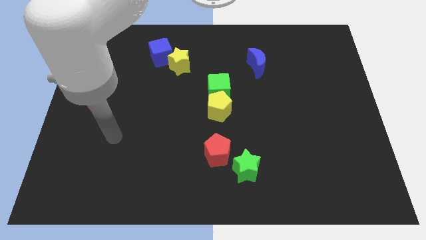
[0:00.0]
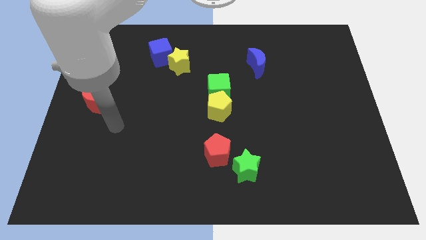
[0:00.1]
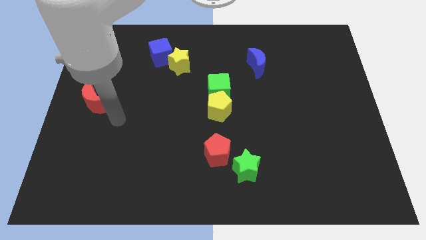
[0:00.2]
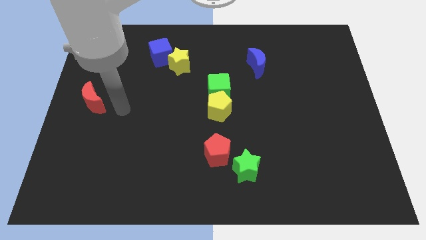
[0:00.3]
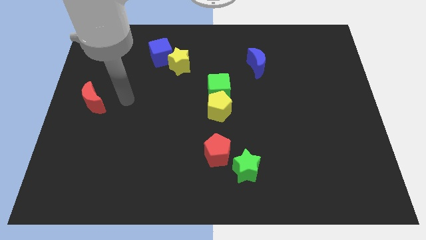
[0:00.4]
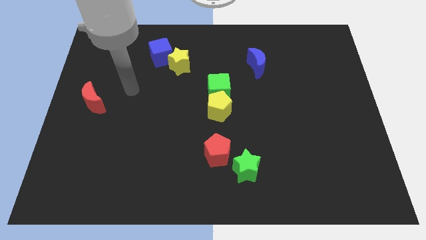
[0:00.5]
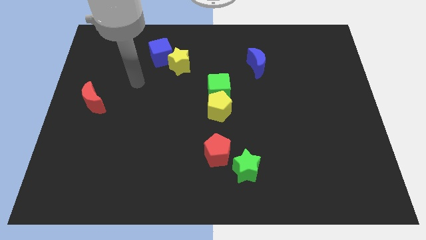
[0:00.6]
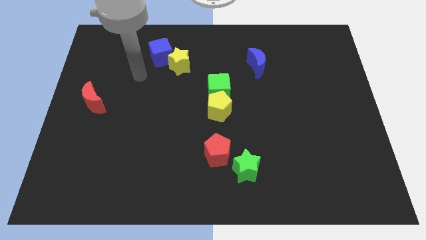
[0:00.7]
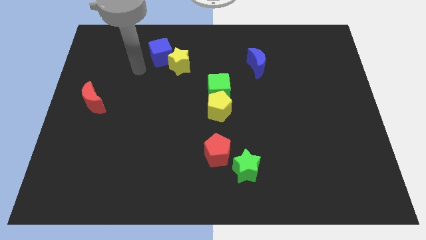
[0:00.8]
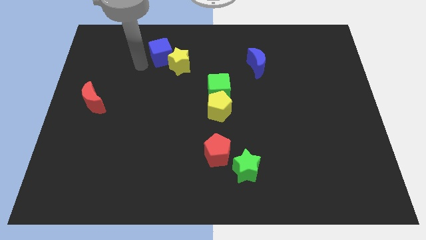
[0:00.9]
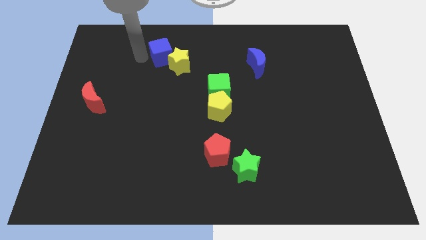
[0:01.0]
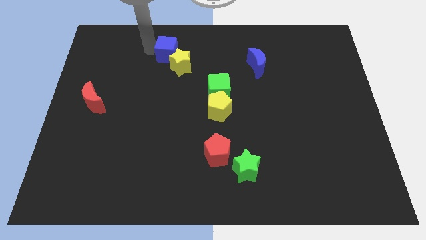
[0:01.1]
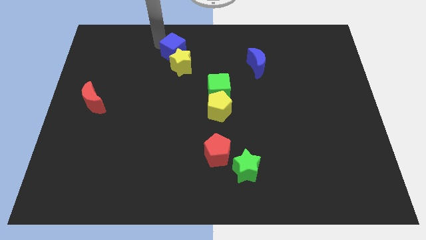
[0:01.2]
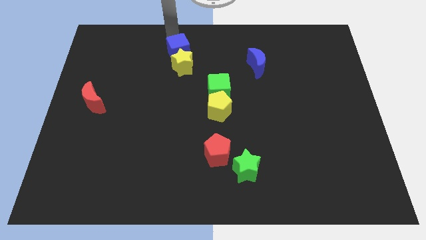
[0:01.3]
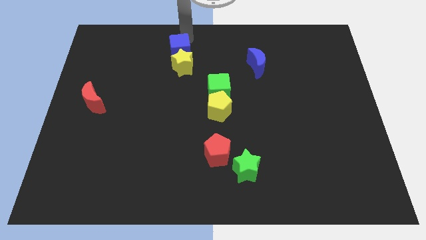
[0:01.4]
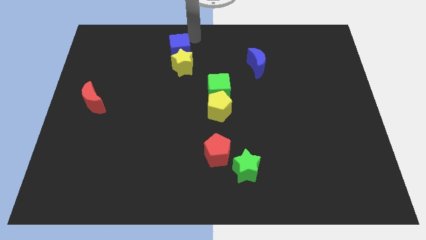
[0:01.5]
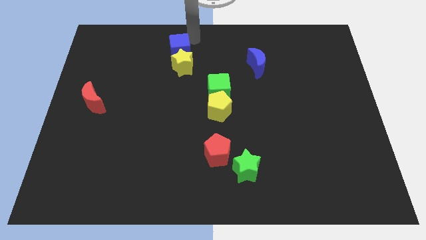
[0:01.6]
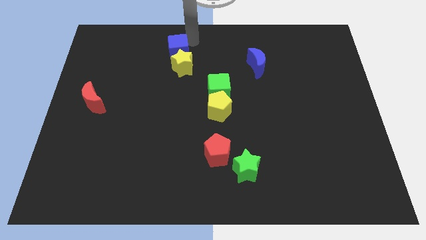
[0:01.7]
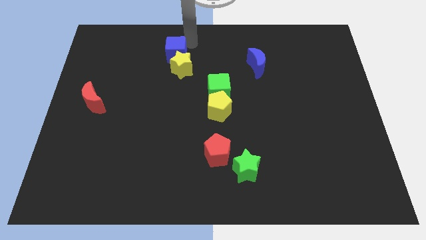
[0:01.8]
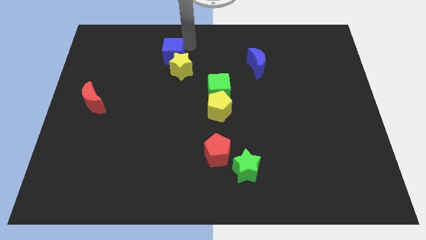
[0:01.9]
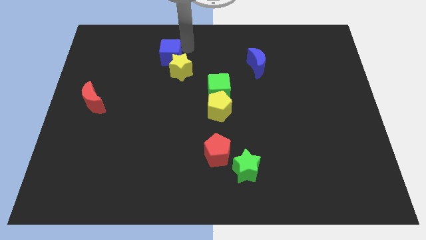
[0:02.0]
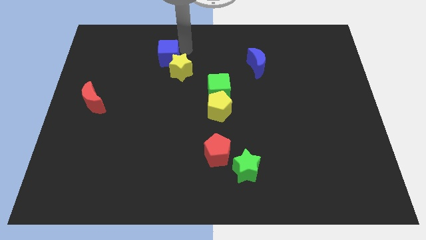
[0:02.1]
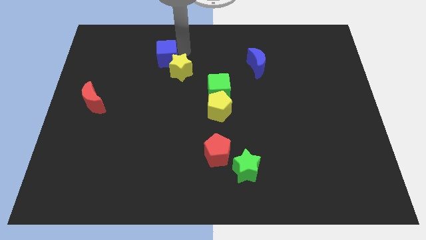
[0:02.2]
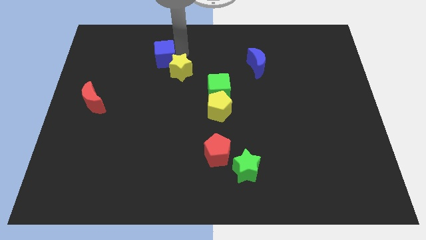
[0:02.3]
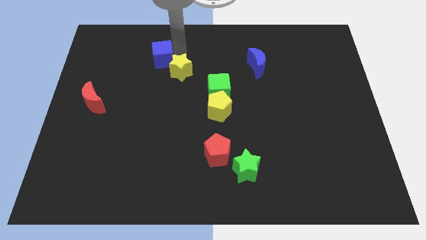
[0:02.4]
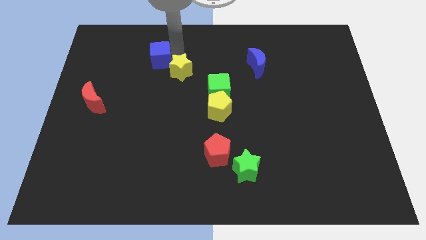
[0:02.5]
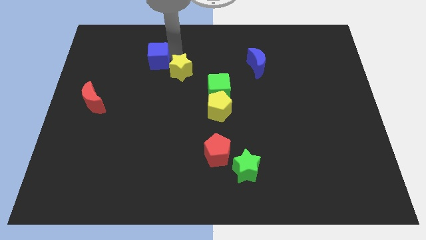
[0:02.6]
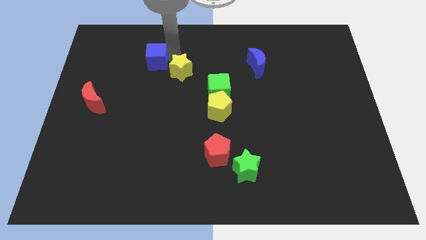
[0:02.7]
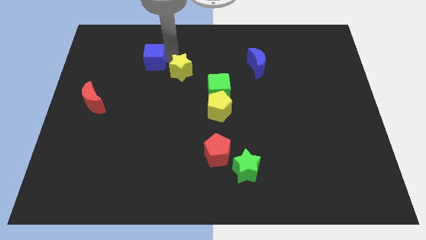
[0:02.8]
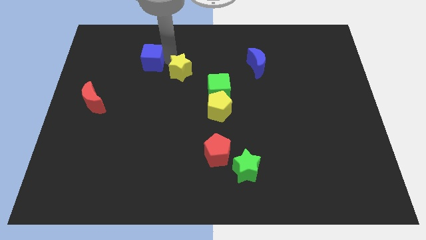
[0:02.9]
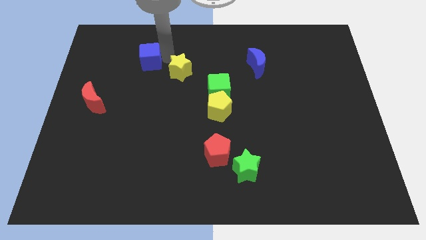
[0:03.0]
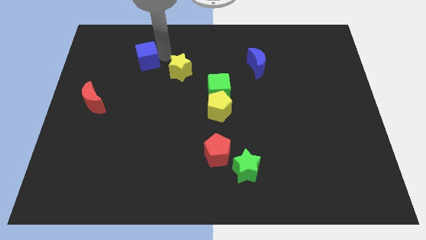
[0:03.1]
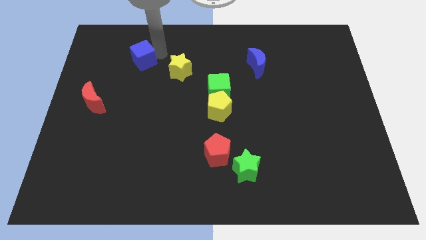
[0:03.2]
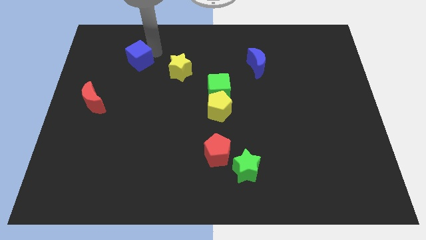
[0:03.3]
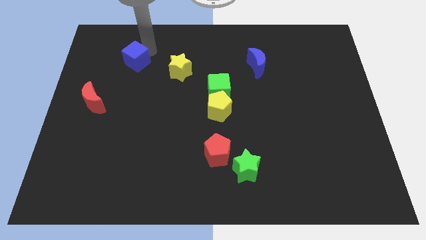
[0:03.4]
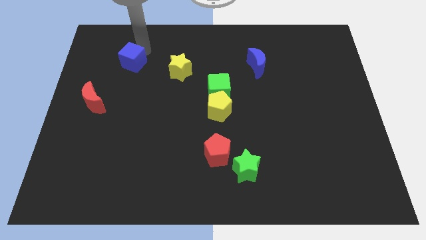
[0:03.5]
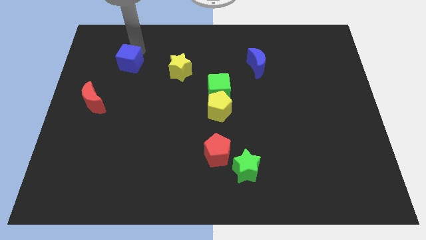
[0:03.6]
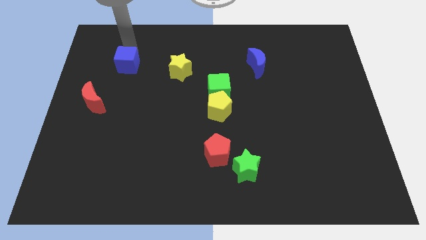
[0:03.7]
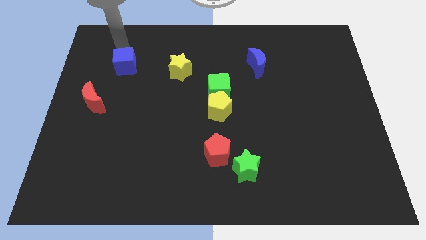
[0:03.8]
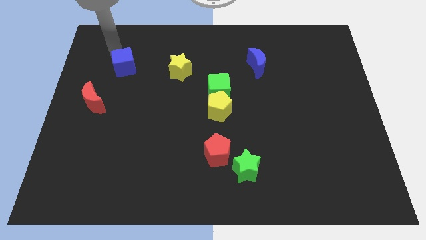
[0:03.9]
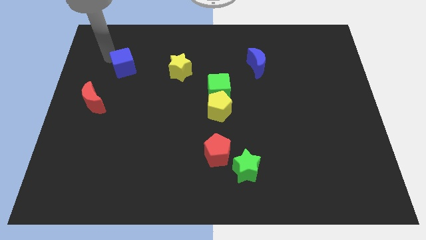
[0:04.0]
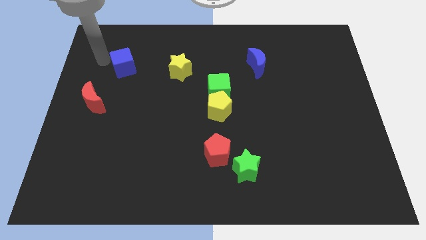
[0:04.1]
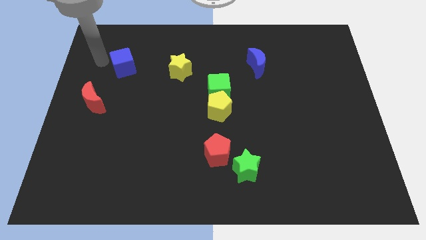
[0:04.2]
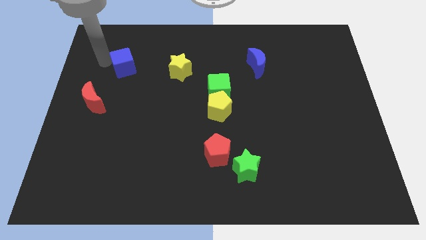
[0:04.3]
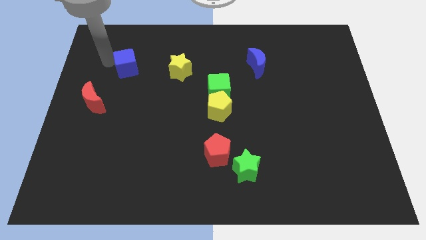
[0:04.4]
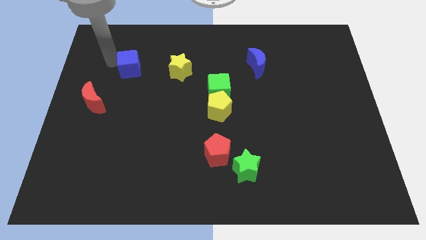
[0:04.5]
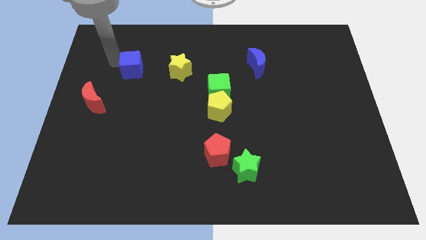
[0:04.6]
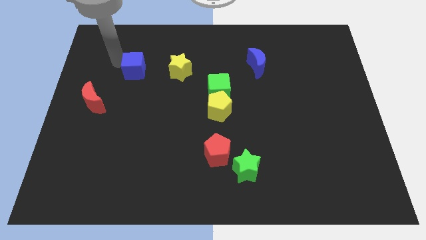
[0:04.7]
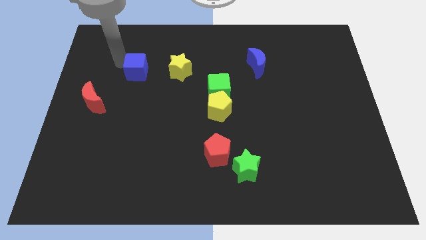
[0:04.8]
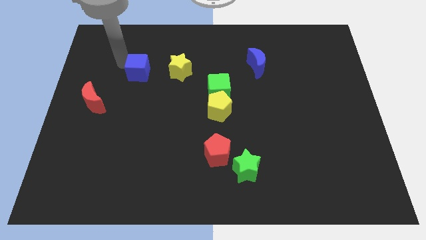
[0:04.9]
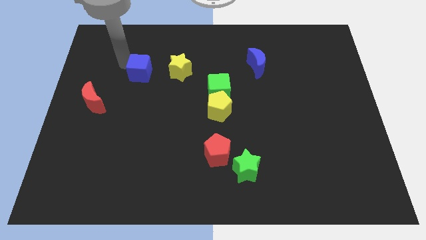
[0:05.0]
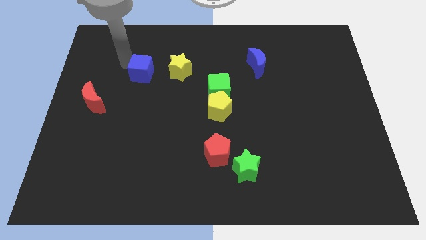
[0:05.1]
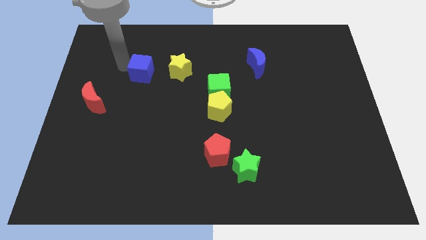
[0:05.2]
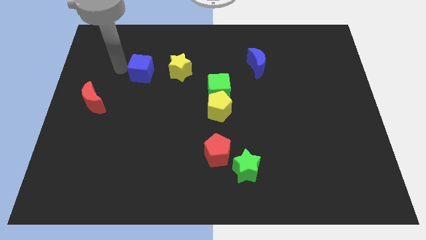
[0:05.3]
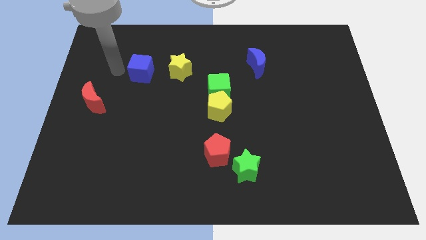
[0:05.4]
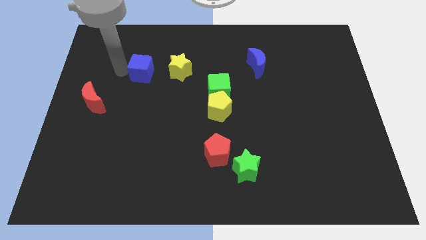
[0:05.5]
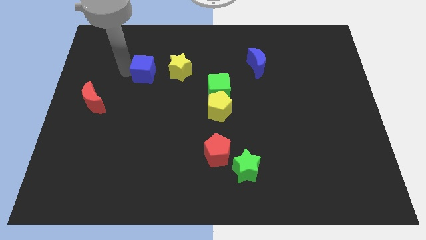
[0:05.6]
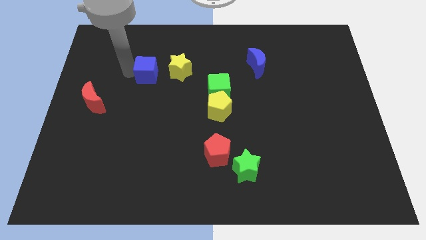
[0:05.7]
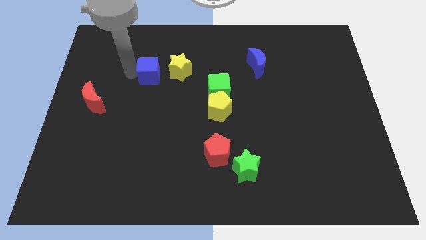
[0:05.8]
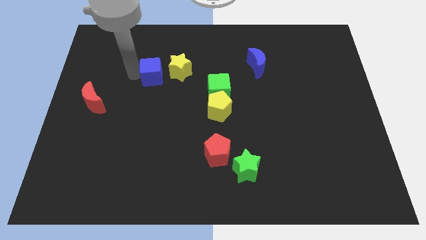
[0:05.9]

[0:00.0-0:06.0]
slightly push the blue cube downwards

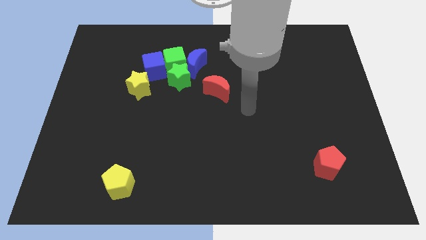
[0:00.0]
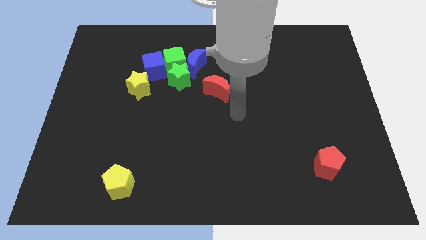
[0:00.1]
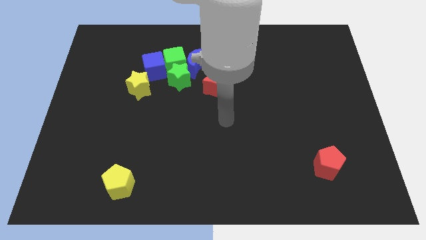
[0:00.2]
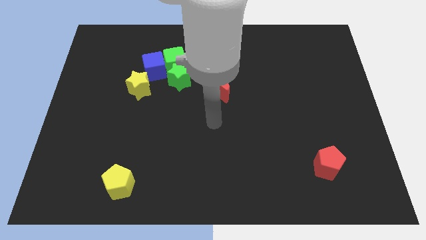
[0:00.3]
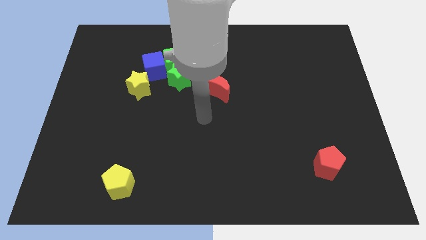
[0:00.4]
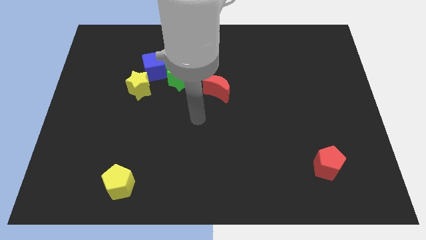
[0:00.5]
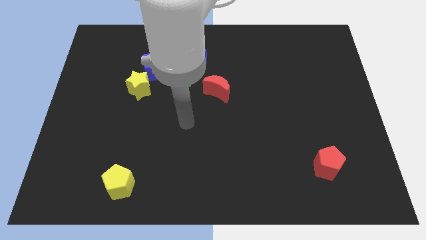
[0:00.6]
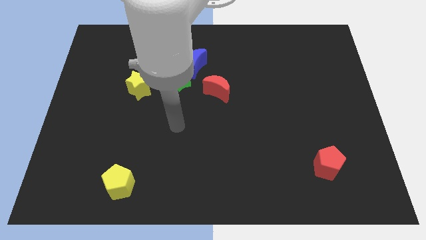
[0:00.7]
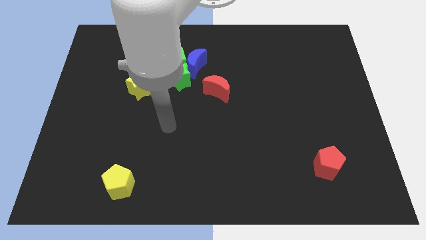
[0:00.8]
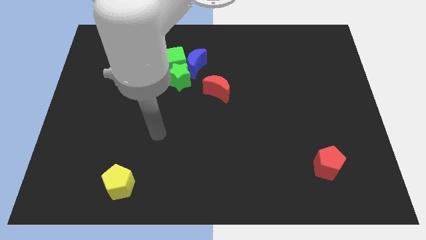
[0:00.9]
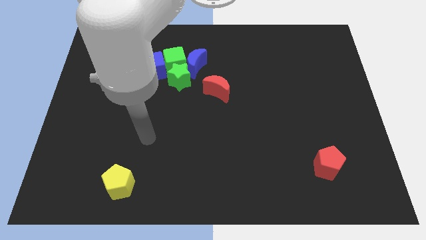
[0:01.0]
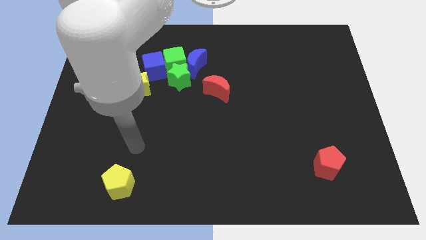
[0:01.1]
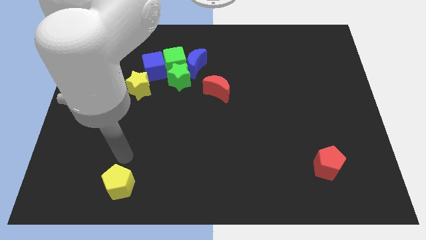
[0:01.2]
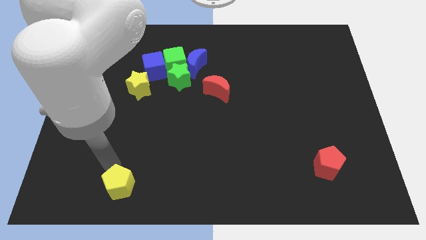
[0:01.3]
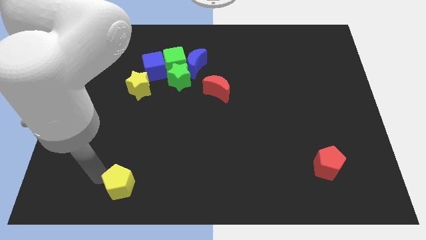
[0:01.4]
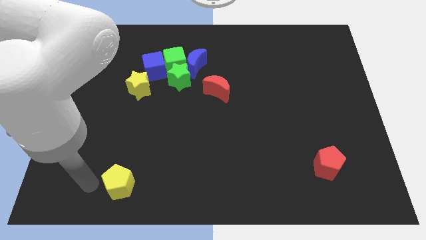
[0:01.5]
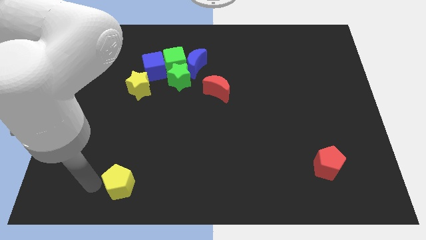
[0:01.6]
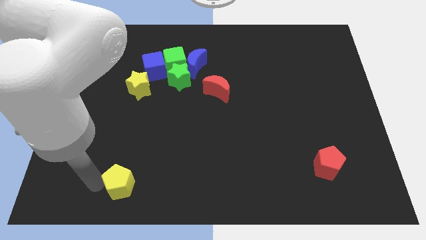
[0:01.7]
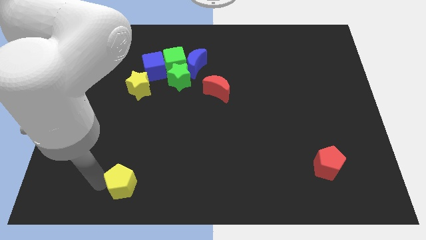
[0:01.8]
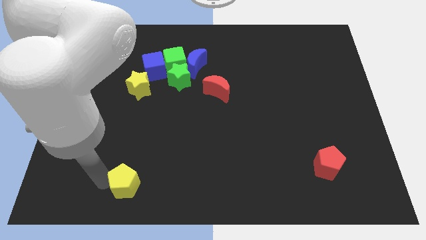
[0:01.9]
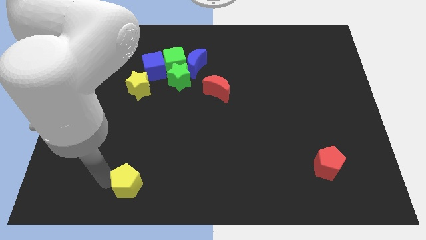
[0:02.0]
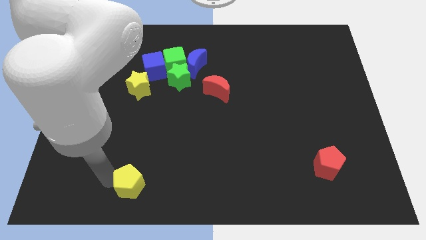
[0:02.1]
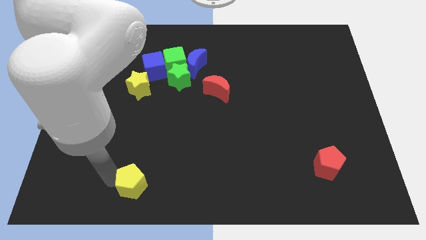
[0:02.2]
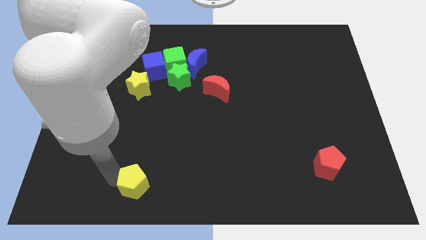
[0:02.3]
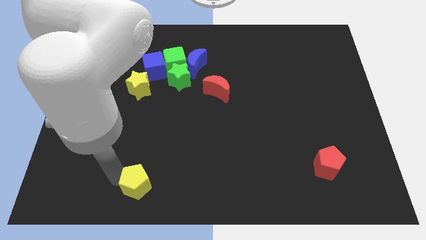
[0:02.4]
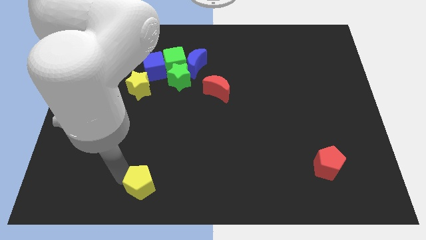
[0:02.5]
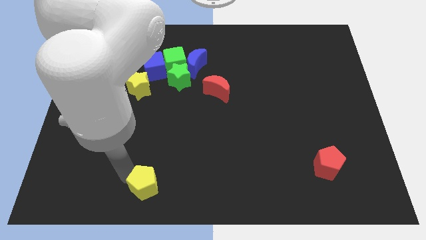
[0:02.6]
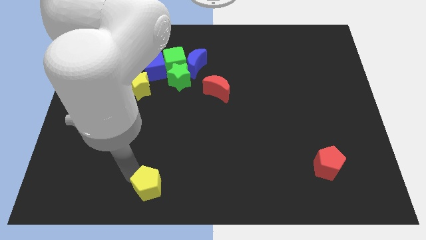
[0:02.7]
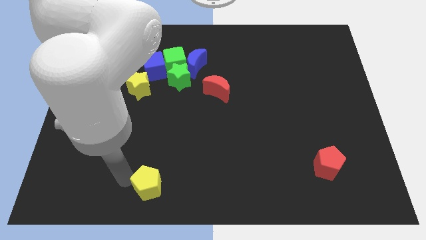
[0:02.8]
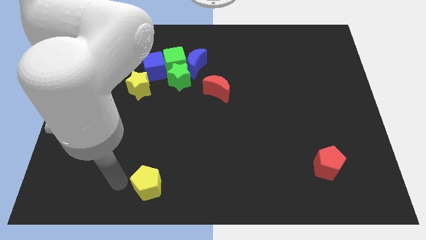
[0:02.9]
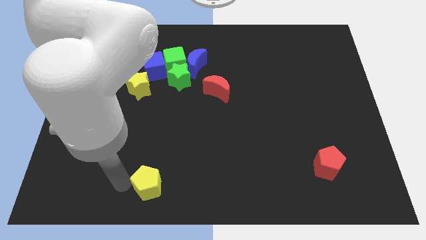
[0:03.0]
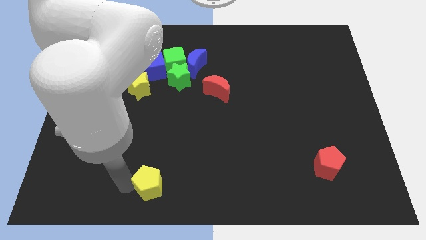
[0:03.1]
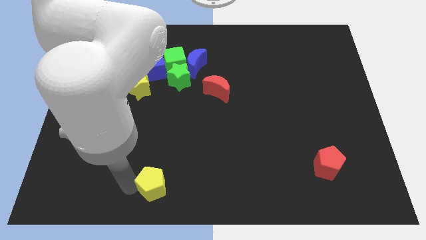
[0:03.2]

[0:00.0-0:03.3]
slightly slide the yellow pentagon to the right
